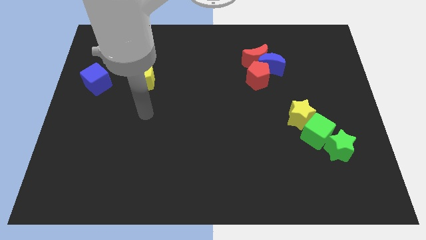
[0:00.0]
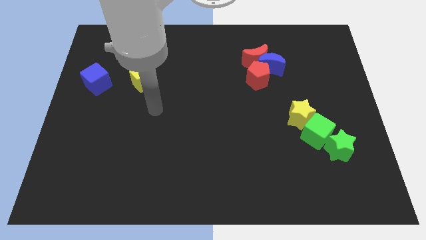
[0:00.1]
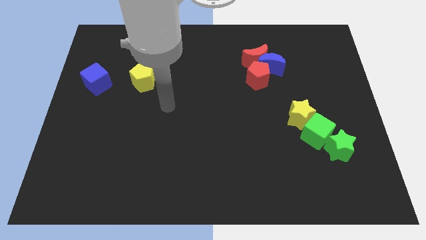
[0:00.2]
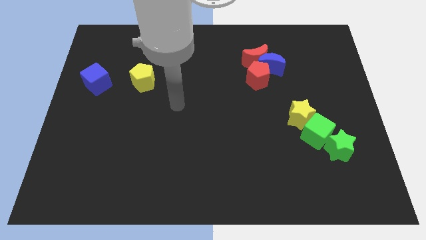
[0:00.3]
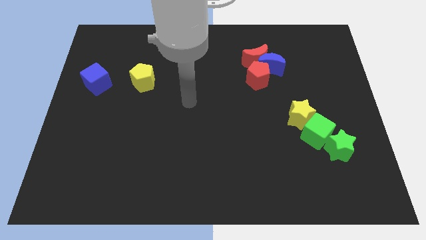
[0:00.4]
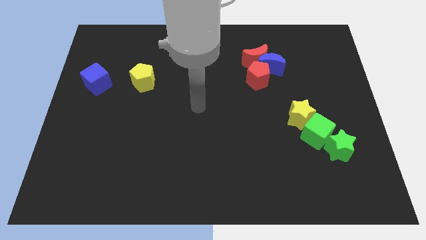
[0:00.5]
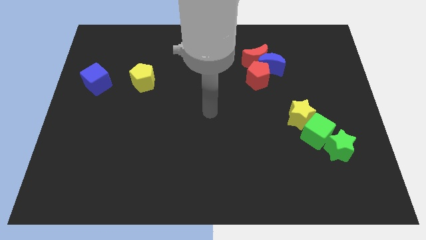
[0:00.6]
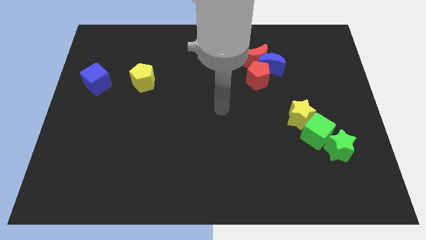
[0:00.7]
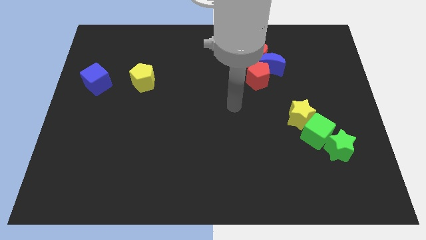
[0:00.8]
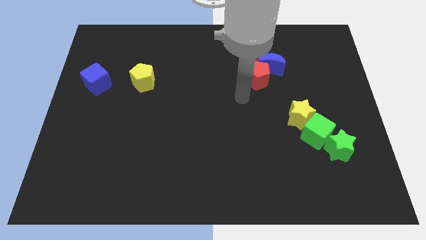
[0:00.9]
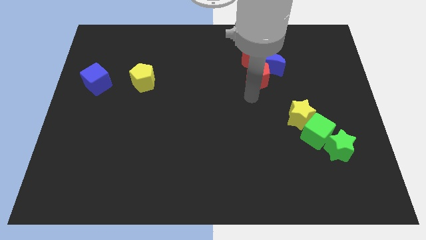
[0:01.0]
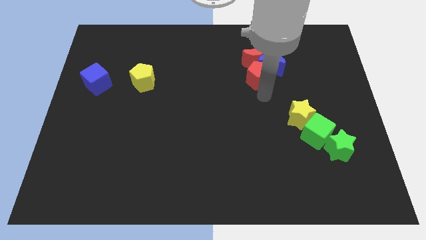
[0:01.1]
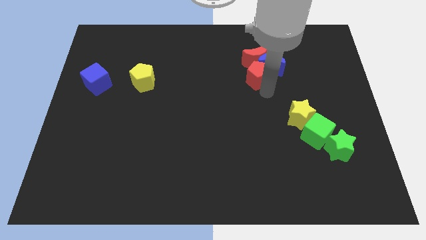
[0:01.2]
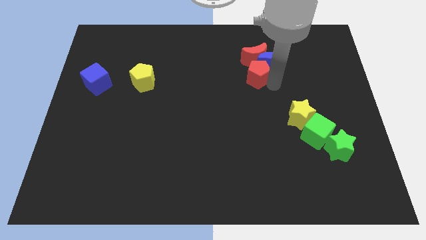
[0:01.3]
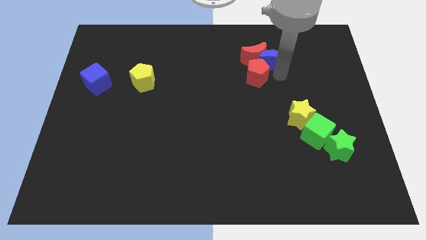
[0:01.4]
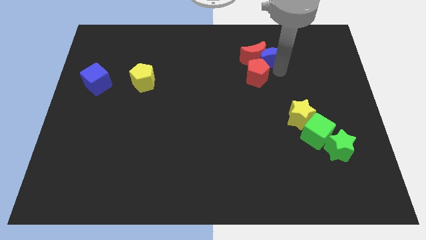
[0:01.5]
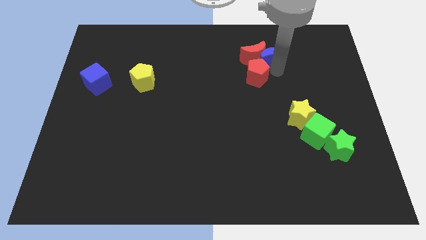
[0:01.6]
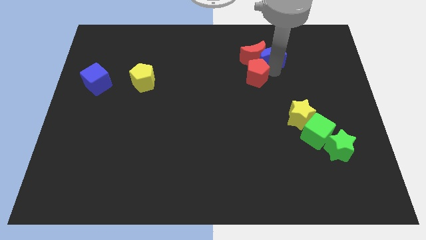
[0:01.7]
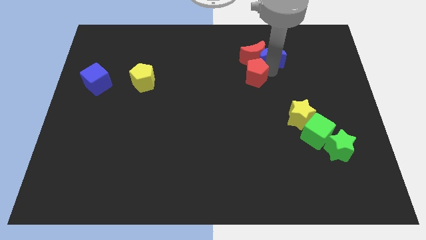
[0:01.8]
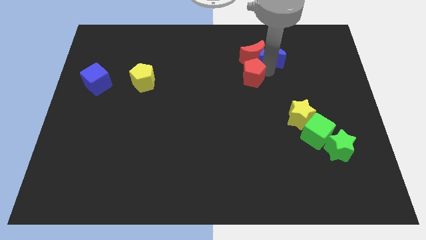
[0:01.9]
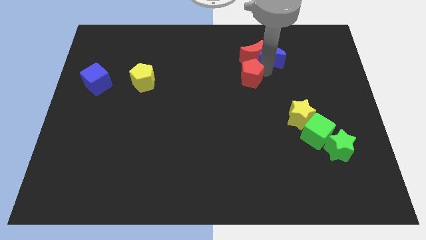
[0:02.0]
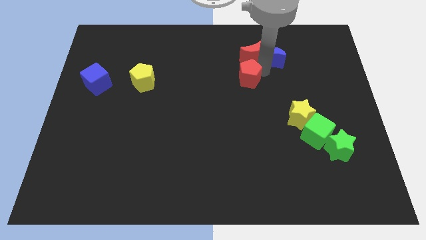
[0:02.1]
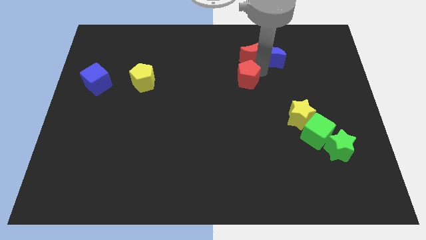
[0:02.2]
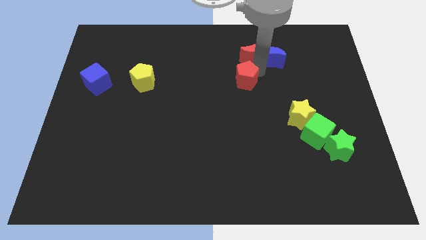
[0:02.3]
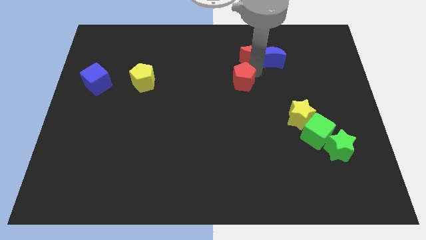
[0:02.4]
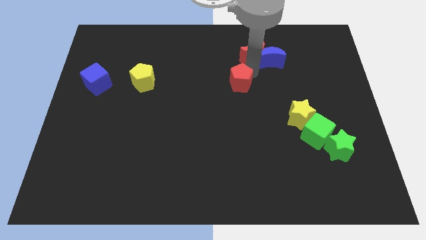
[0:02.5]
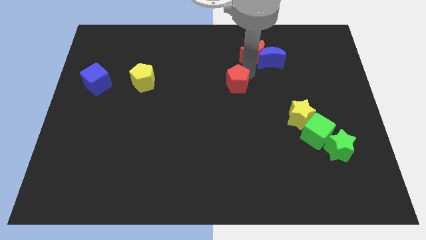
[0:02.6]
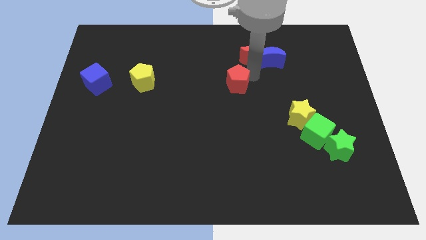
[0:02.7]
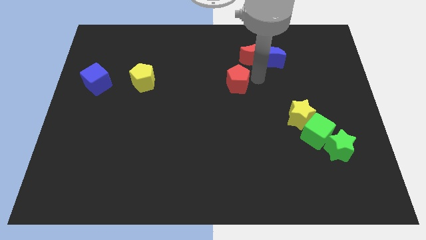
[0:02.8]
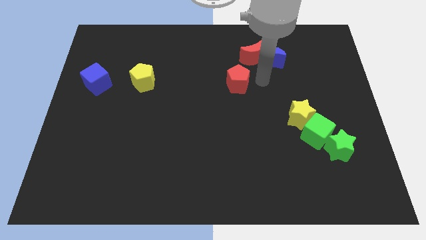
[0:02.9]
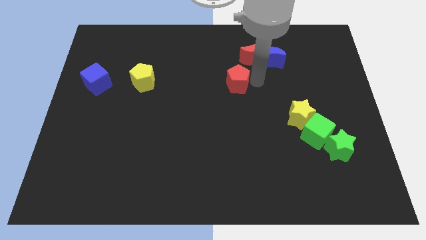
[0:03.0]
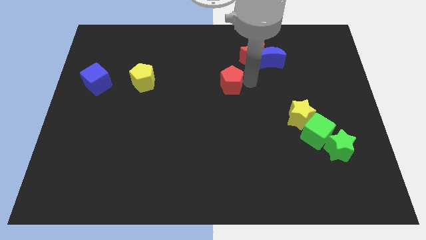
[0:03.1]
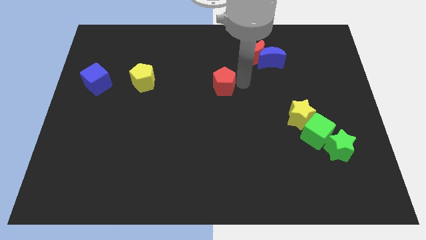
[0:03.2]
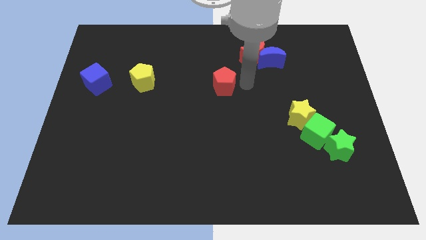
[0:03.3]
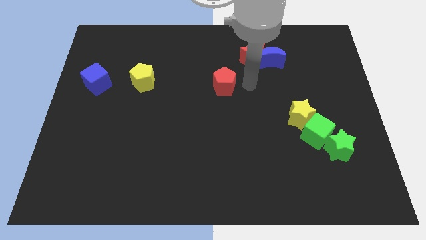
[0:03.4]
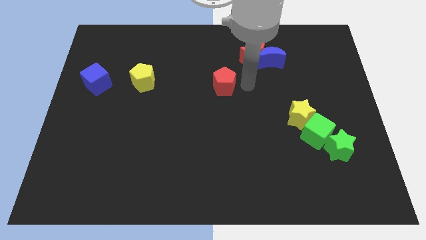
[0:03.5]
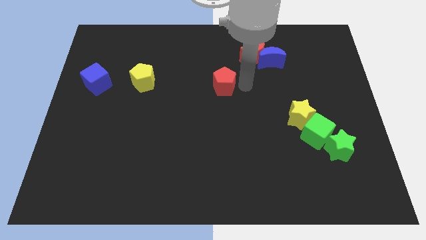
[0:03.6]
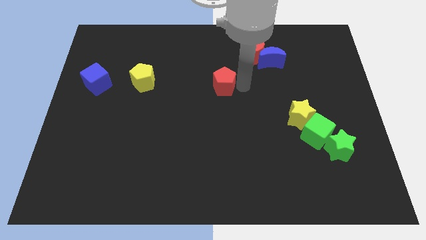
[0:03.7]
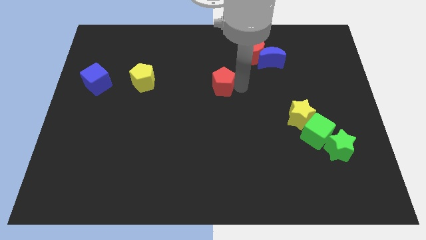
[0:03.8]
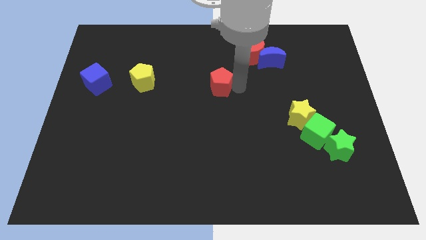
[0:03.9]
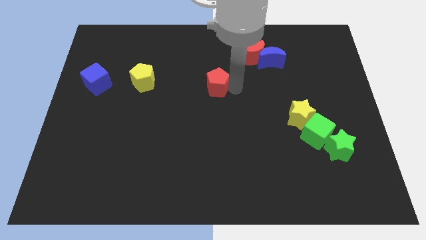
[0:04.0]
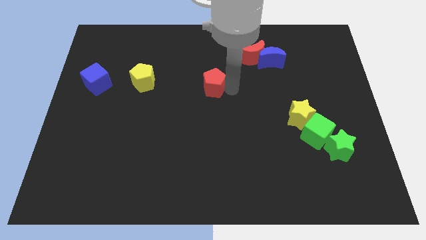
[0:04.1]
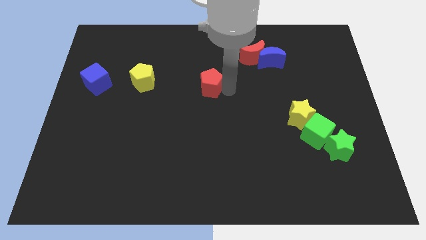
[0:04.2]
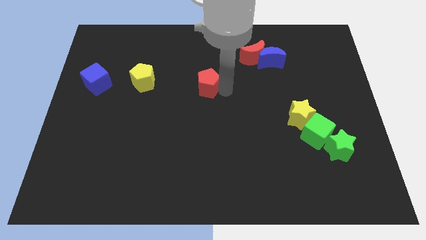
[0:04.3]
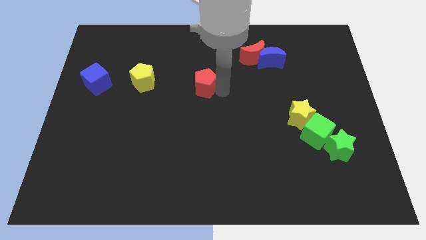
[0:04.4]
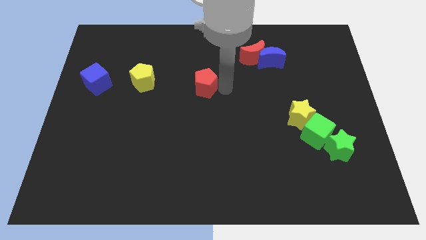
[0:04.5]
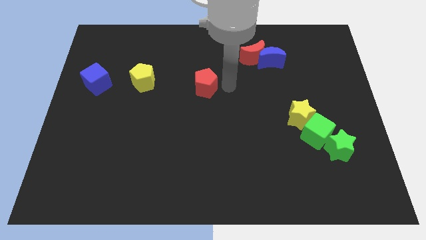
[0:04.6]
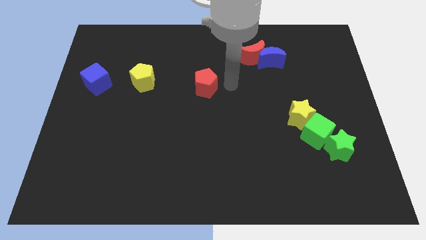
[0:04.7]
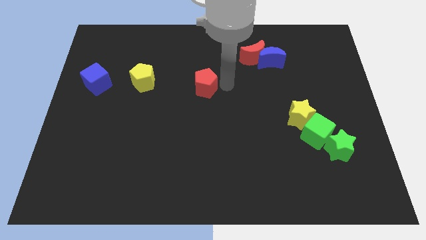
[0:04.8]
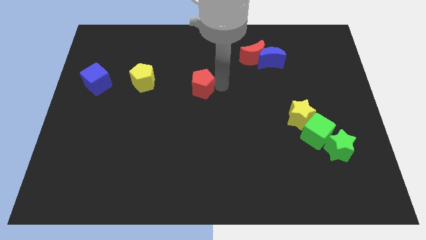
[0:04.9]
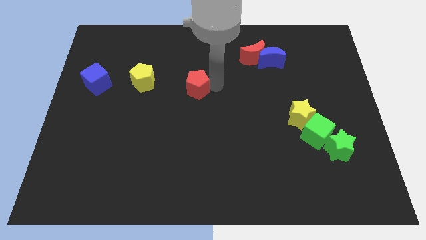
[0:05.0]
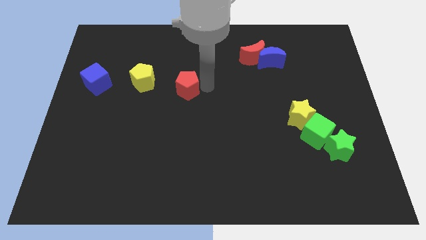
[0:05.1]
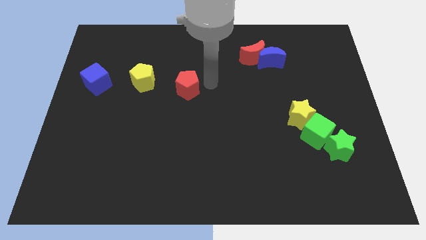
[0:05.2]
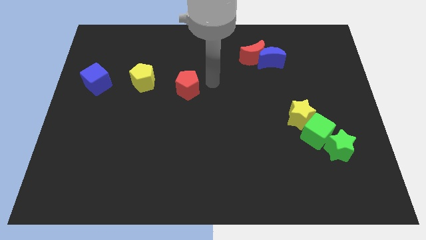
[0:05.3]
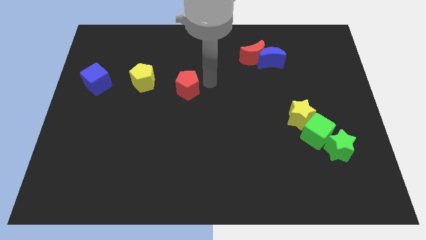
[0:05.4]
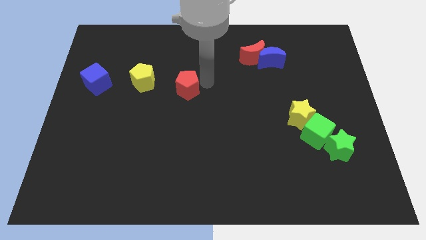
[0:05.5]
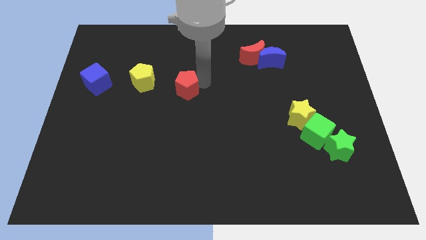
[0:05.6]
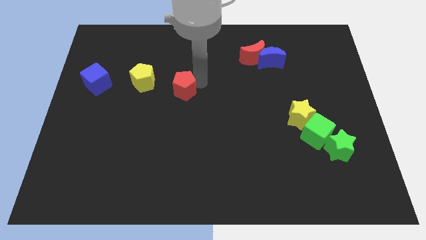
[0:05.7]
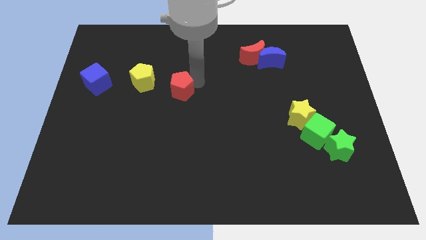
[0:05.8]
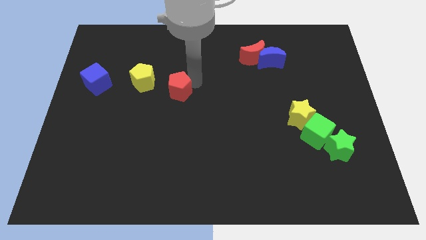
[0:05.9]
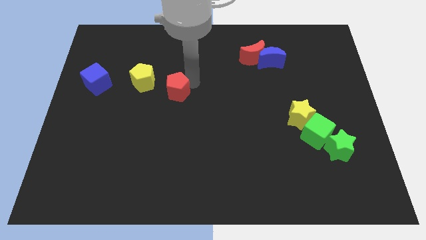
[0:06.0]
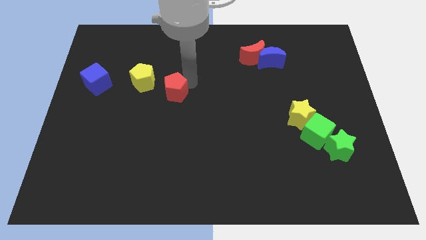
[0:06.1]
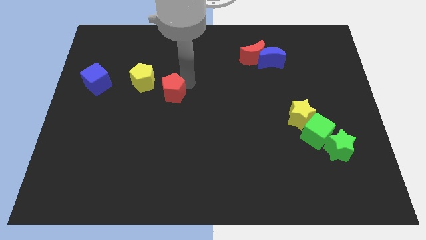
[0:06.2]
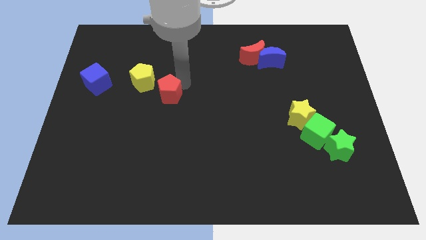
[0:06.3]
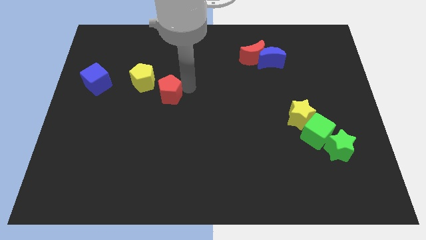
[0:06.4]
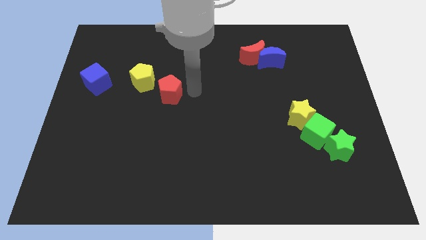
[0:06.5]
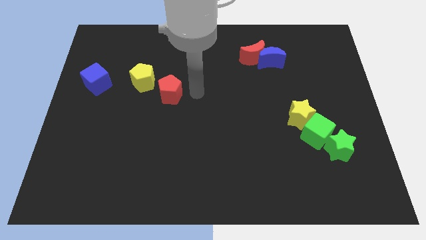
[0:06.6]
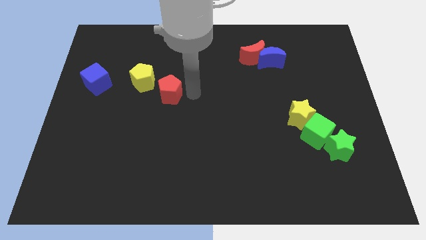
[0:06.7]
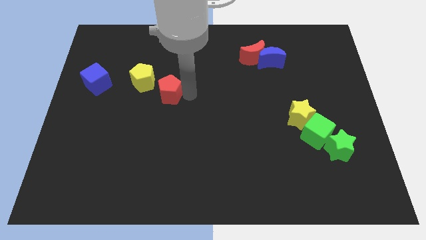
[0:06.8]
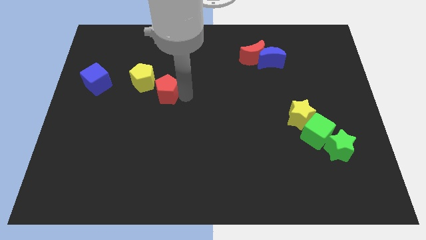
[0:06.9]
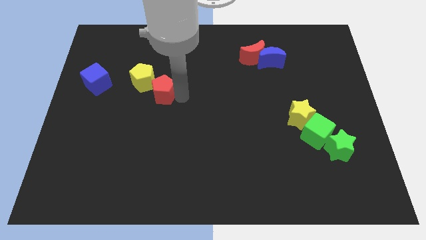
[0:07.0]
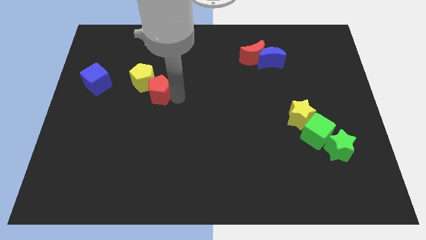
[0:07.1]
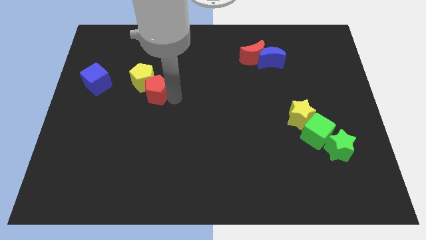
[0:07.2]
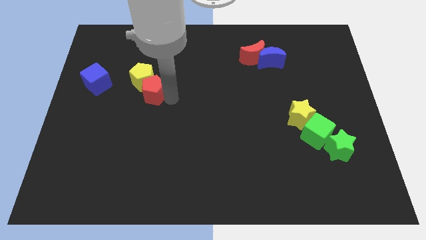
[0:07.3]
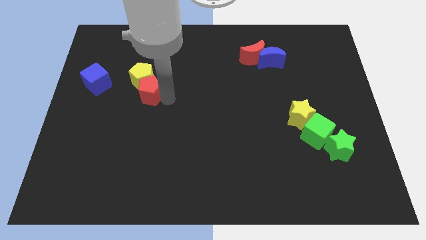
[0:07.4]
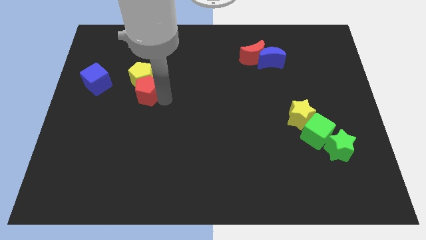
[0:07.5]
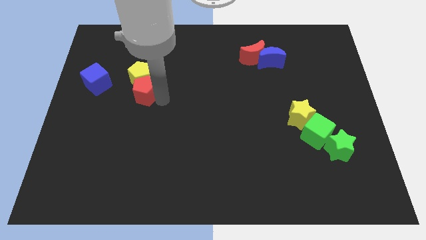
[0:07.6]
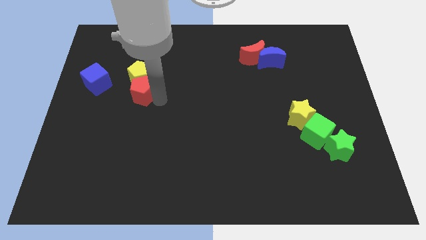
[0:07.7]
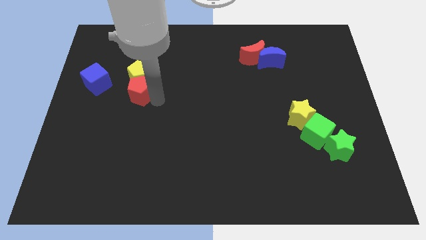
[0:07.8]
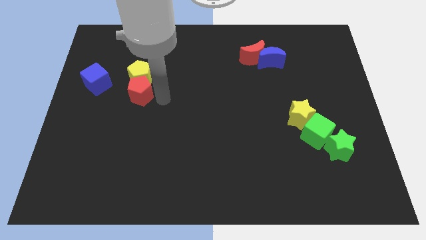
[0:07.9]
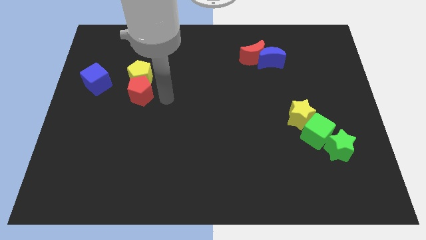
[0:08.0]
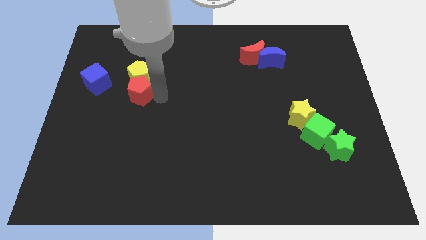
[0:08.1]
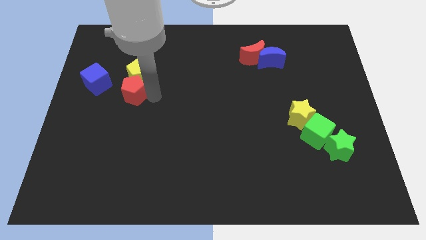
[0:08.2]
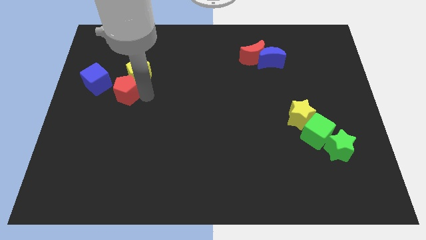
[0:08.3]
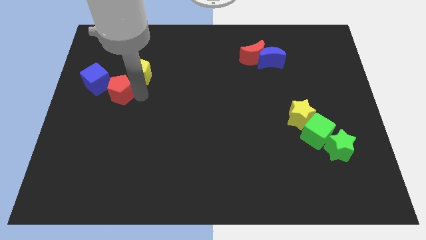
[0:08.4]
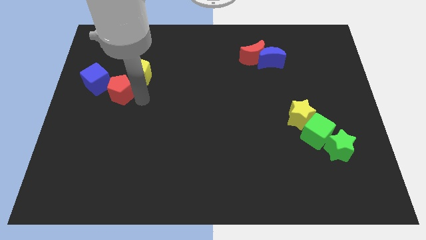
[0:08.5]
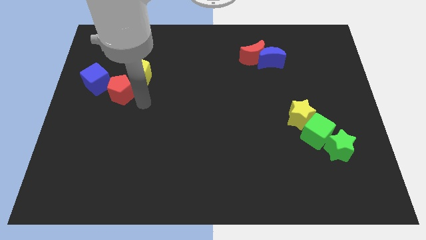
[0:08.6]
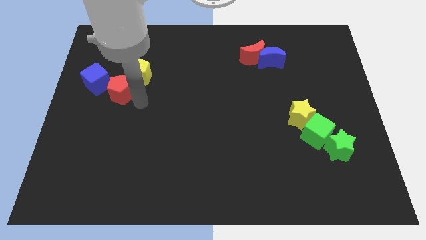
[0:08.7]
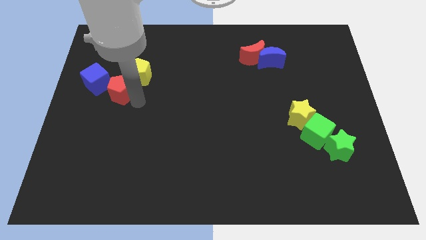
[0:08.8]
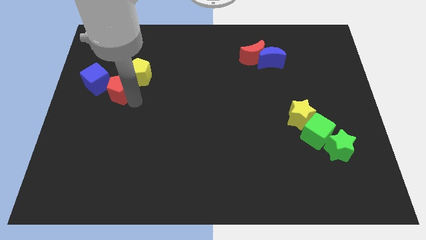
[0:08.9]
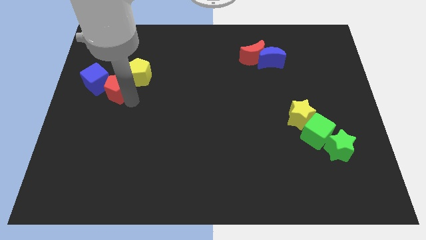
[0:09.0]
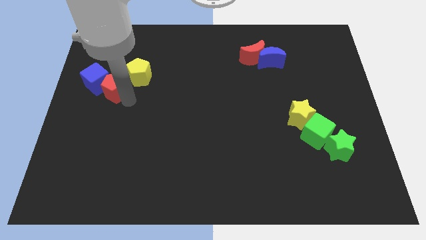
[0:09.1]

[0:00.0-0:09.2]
move the red pentagon next to the blue cube
